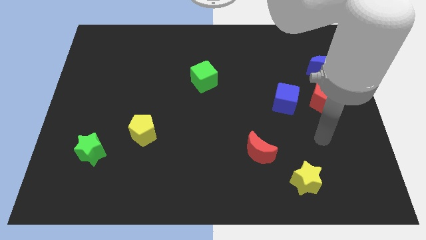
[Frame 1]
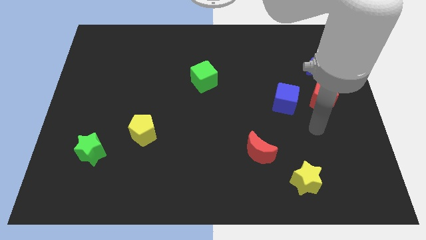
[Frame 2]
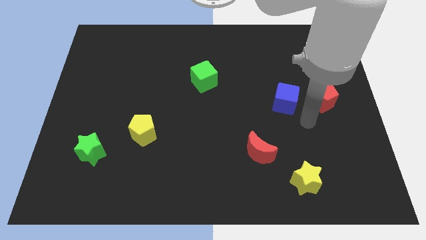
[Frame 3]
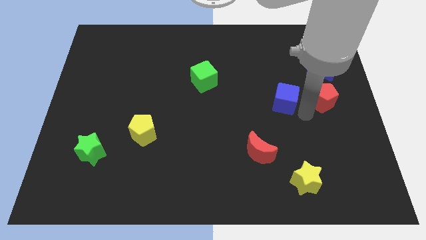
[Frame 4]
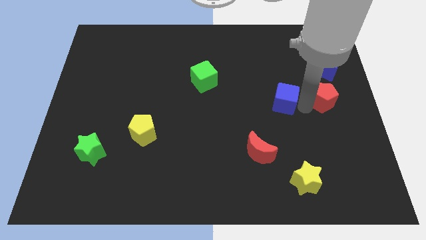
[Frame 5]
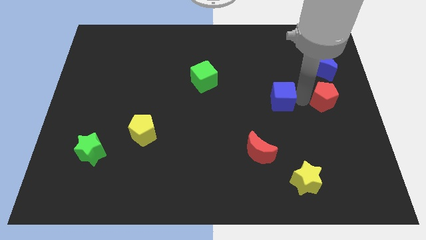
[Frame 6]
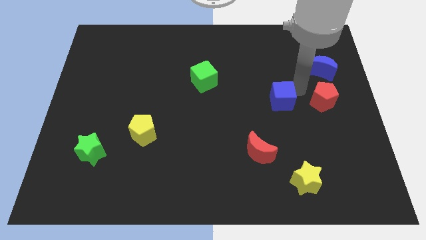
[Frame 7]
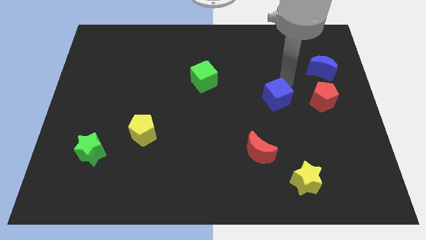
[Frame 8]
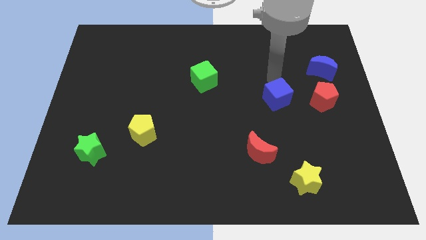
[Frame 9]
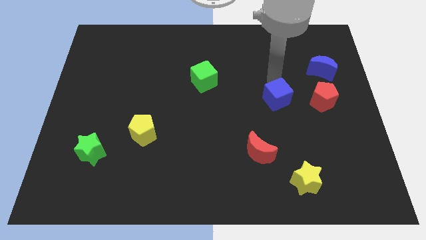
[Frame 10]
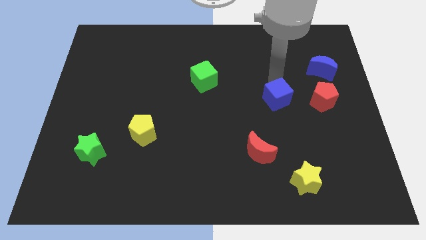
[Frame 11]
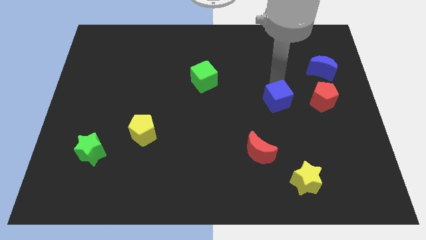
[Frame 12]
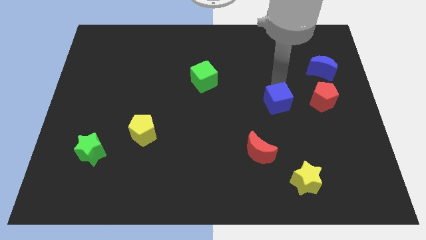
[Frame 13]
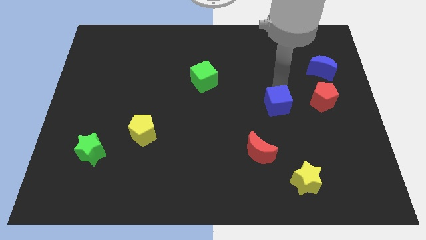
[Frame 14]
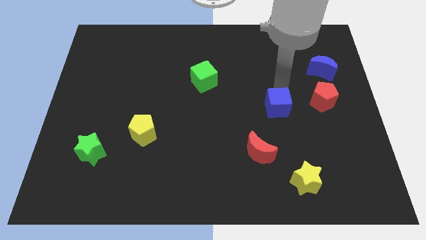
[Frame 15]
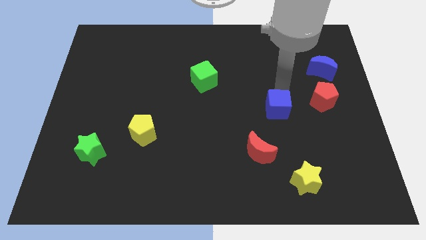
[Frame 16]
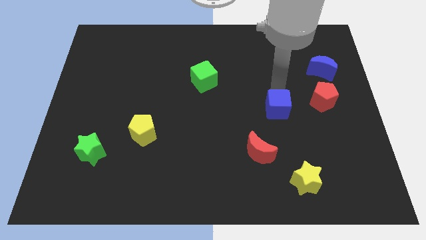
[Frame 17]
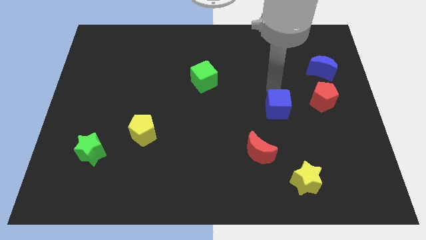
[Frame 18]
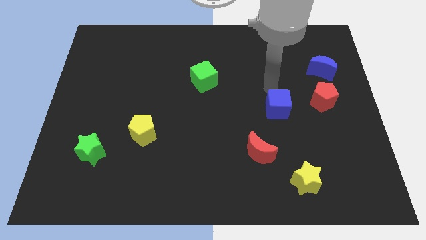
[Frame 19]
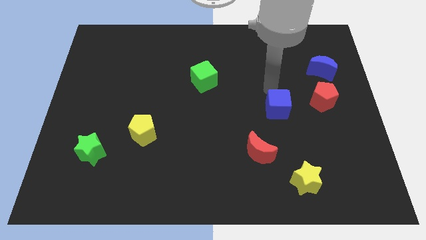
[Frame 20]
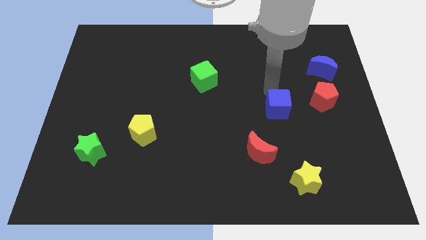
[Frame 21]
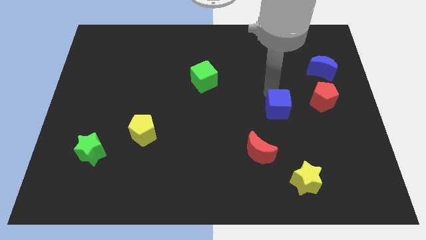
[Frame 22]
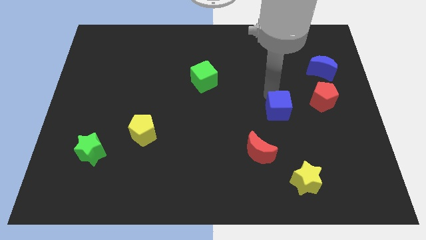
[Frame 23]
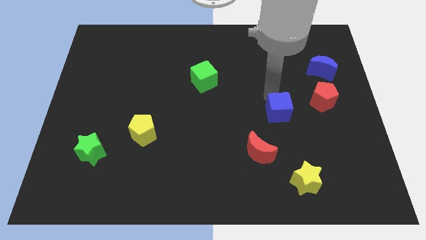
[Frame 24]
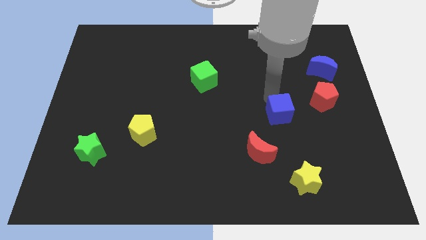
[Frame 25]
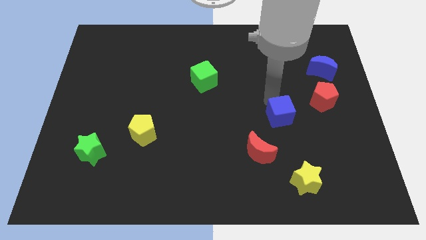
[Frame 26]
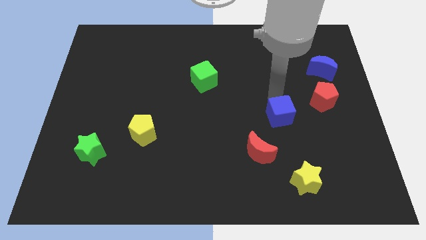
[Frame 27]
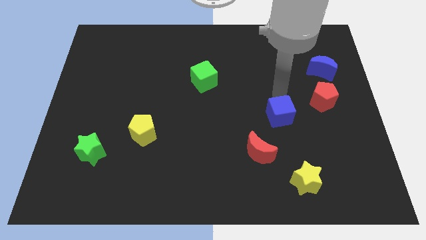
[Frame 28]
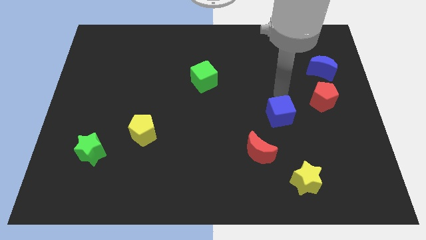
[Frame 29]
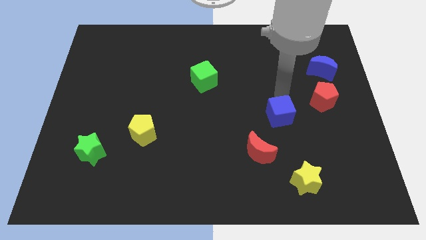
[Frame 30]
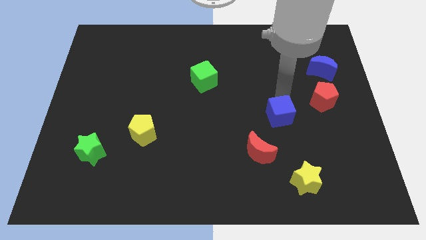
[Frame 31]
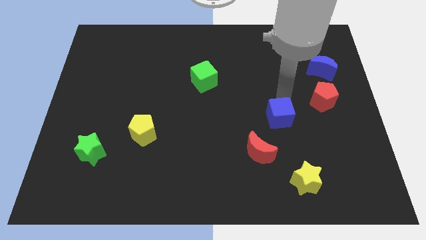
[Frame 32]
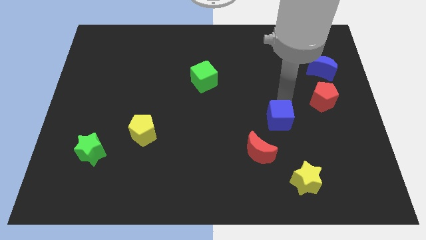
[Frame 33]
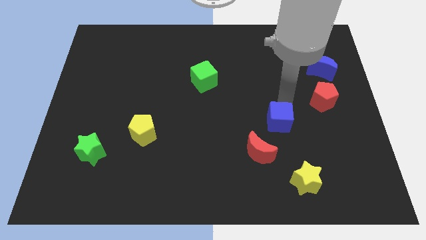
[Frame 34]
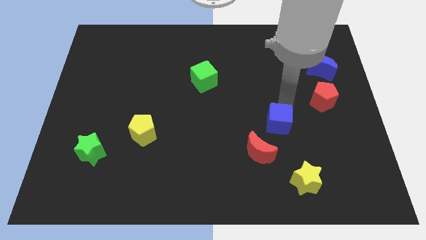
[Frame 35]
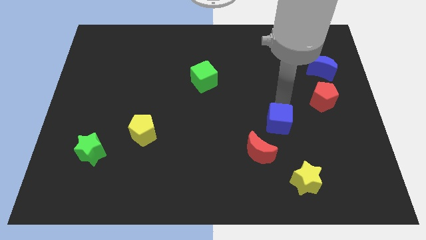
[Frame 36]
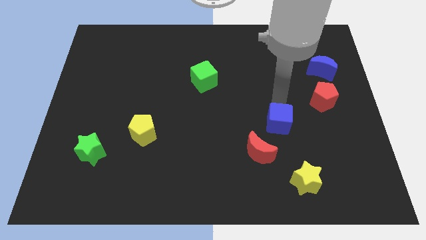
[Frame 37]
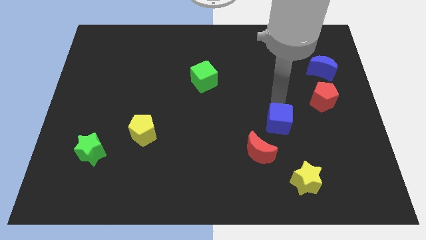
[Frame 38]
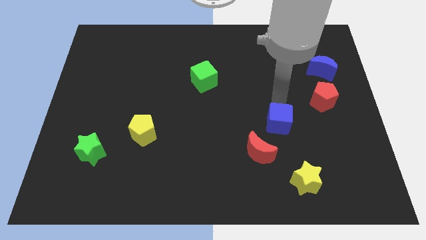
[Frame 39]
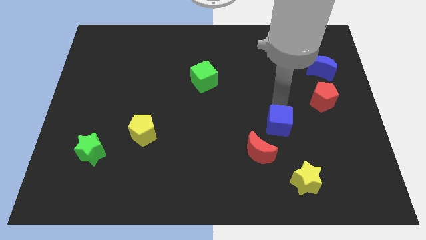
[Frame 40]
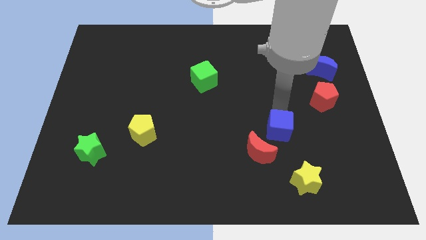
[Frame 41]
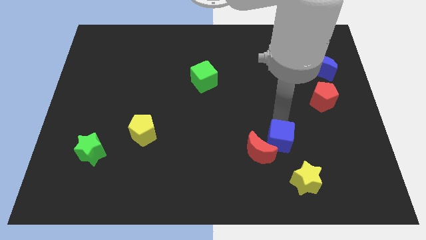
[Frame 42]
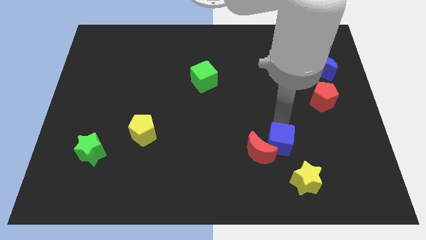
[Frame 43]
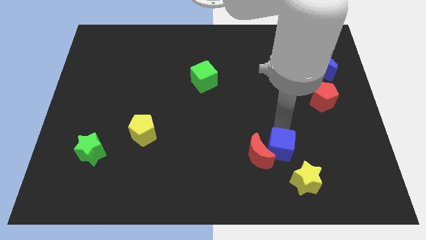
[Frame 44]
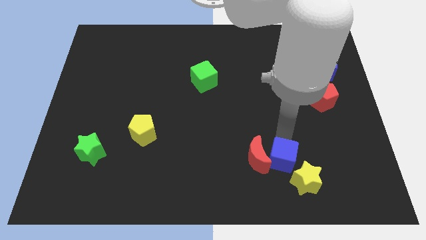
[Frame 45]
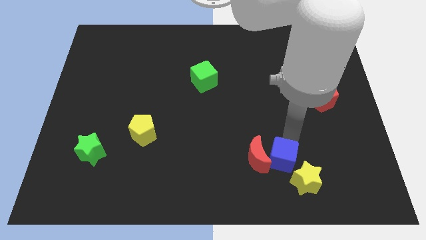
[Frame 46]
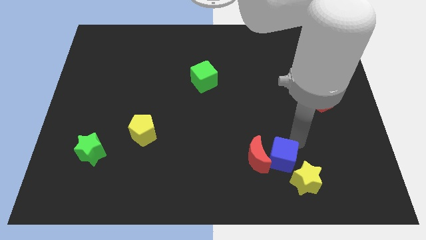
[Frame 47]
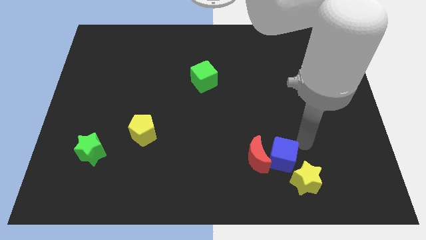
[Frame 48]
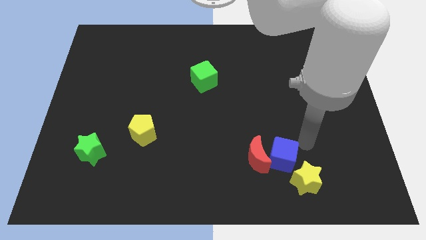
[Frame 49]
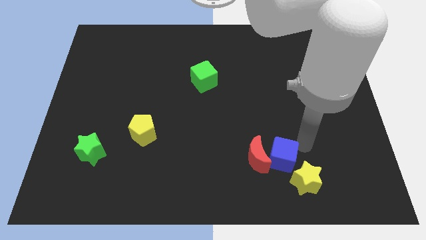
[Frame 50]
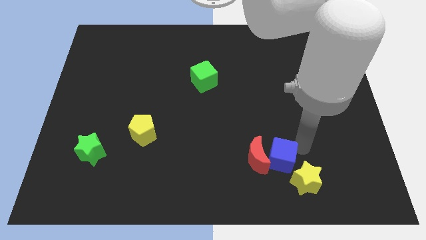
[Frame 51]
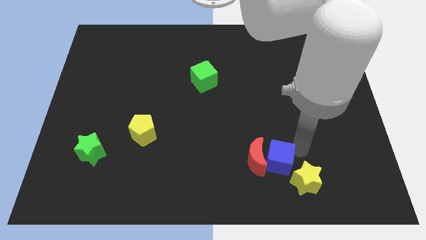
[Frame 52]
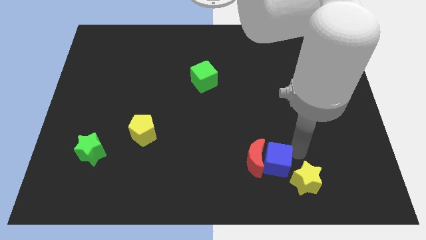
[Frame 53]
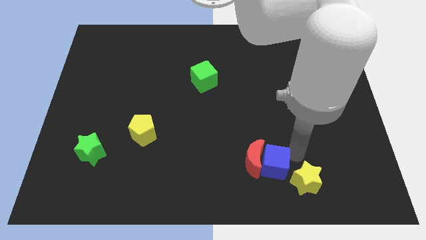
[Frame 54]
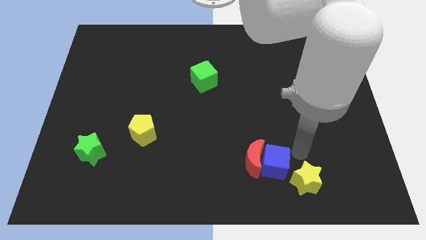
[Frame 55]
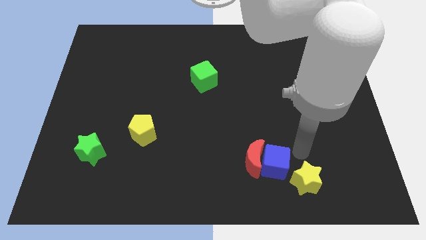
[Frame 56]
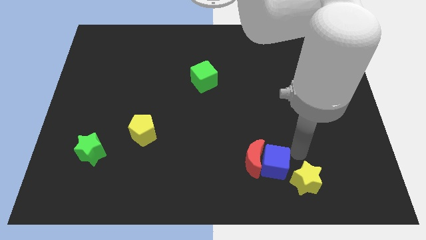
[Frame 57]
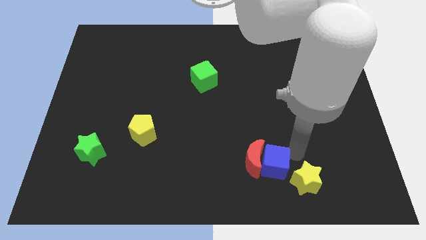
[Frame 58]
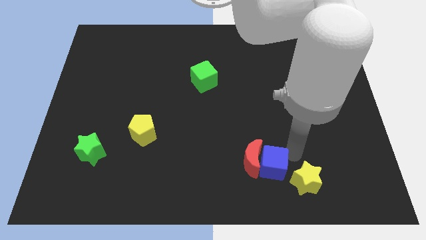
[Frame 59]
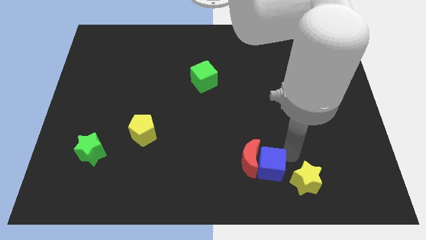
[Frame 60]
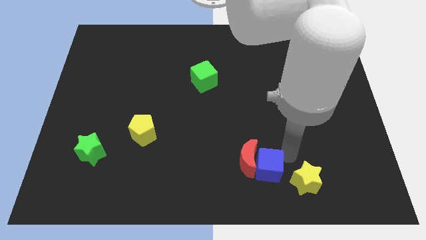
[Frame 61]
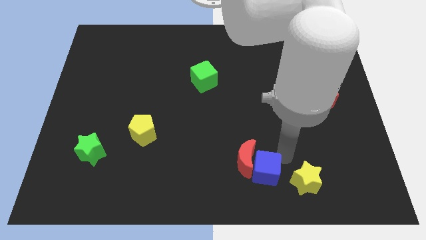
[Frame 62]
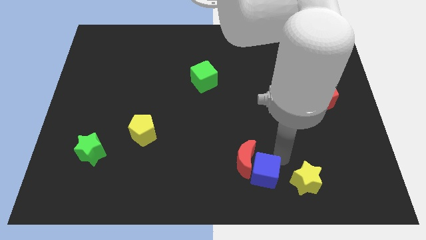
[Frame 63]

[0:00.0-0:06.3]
slide the blue cube to the bottom side

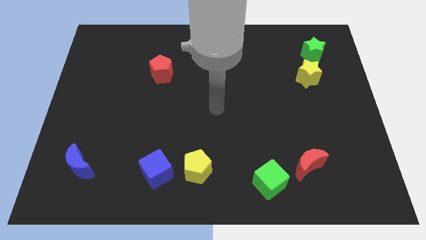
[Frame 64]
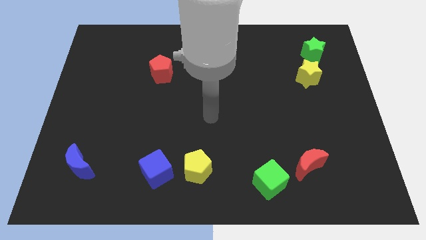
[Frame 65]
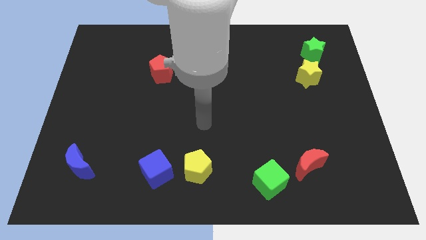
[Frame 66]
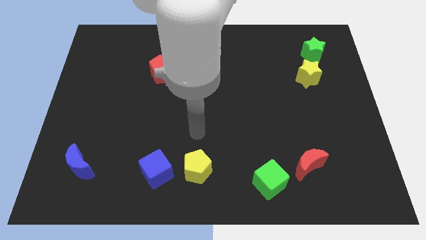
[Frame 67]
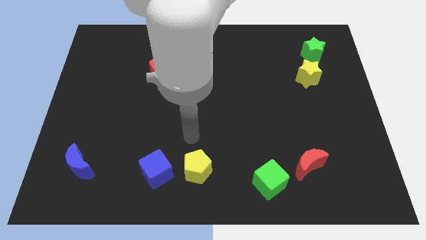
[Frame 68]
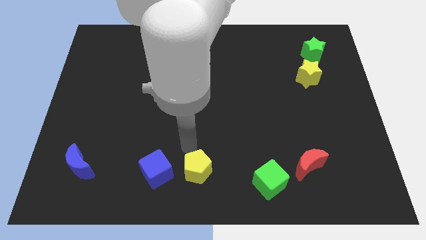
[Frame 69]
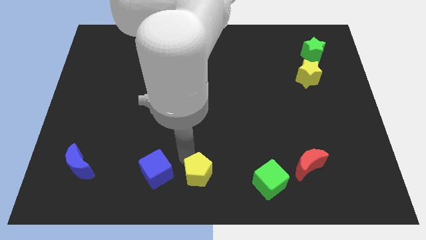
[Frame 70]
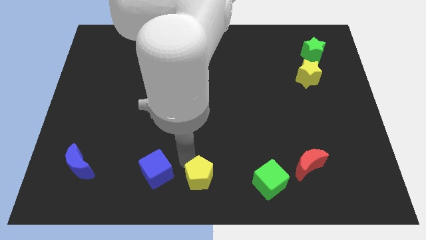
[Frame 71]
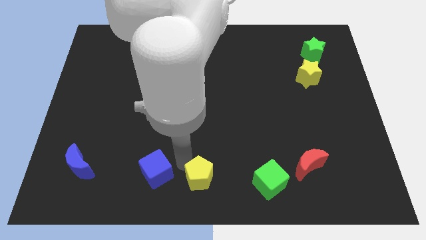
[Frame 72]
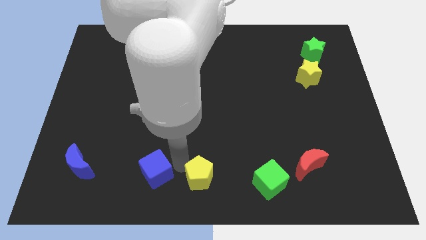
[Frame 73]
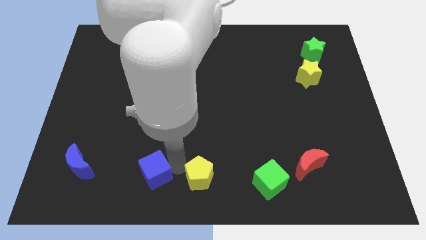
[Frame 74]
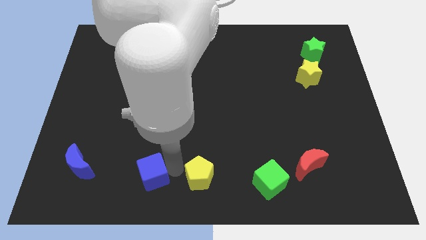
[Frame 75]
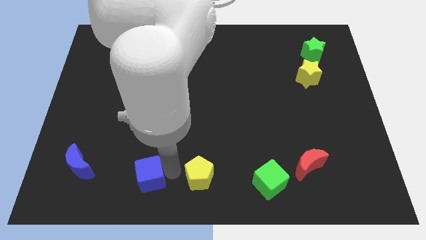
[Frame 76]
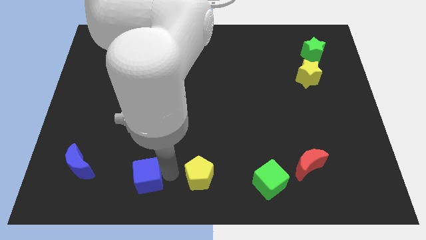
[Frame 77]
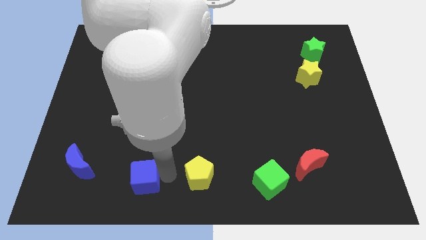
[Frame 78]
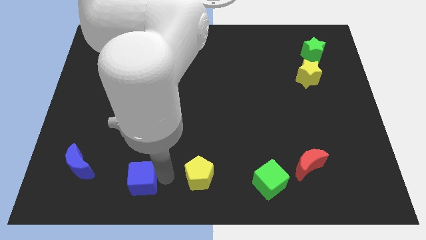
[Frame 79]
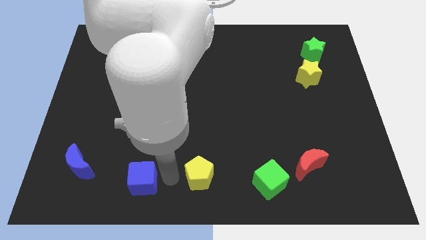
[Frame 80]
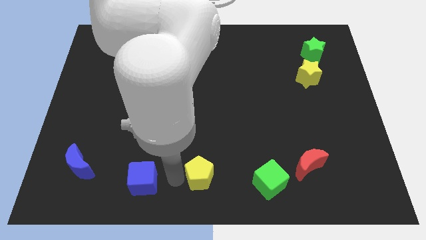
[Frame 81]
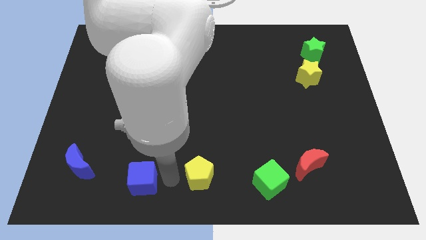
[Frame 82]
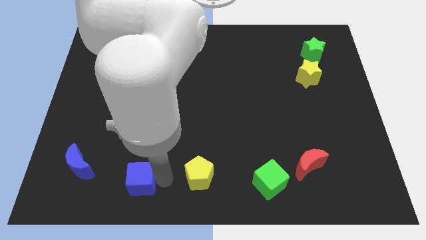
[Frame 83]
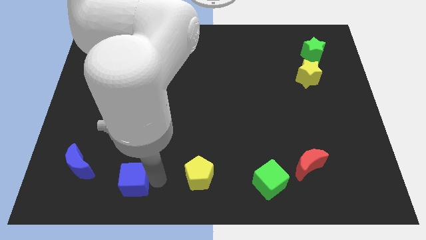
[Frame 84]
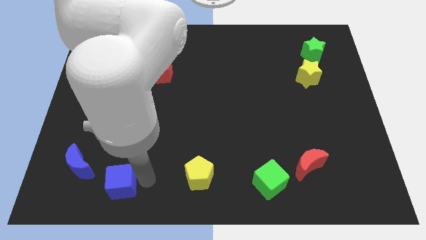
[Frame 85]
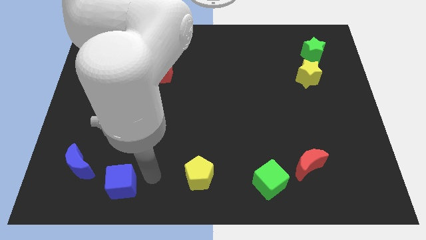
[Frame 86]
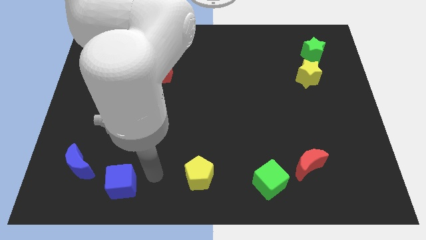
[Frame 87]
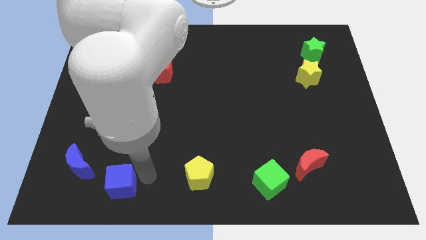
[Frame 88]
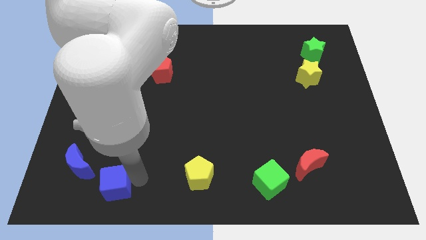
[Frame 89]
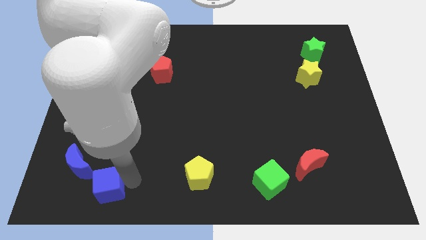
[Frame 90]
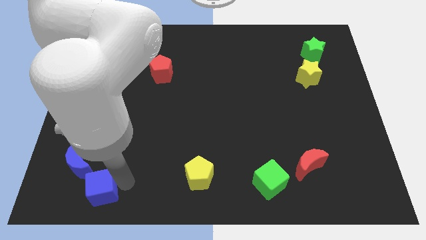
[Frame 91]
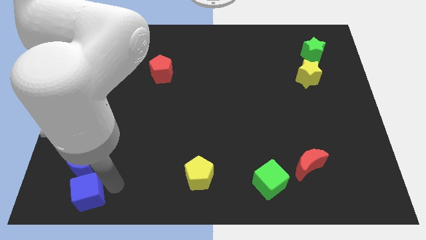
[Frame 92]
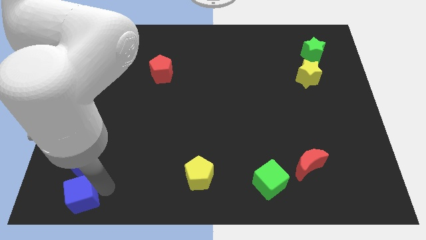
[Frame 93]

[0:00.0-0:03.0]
slide the blue cube to the bottom left of the board
